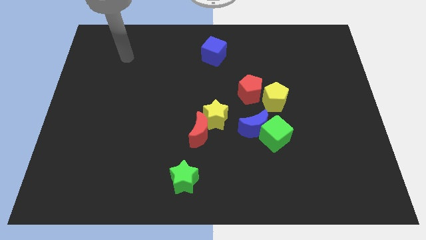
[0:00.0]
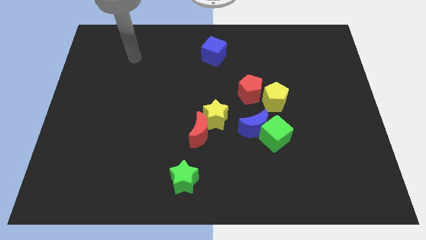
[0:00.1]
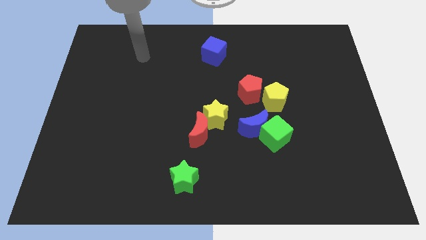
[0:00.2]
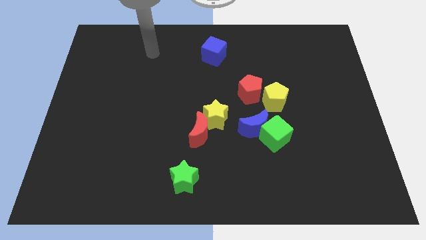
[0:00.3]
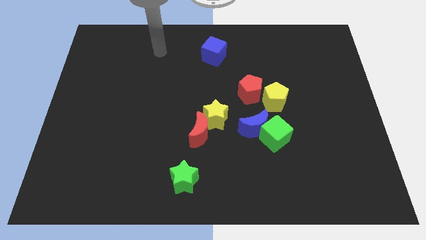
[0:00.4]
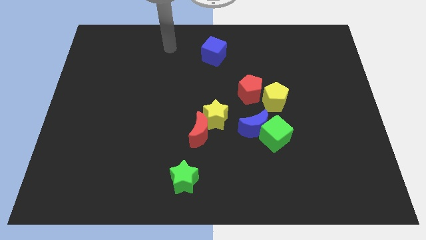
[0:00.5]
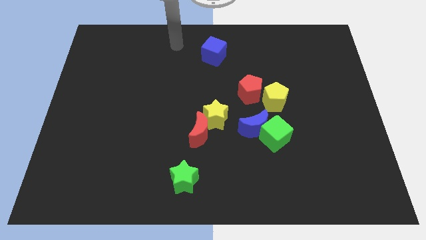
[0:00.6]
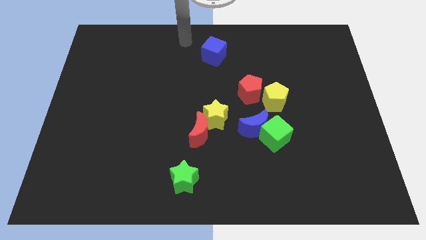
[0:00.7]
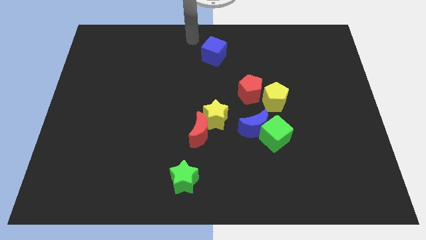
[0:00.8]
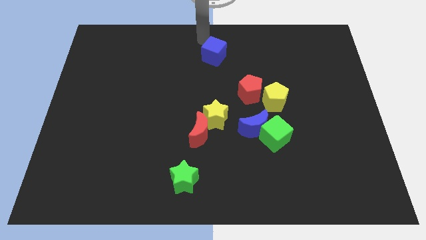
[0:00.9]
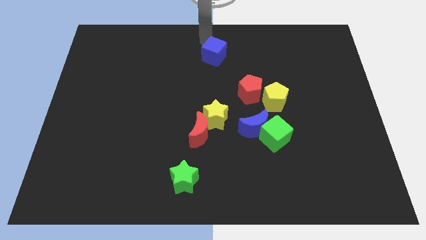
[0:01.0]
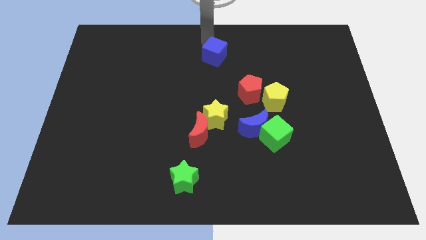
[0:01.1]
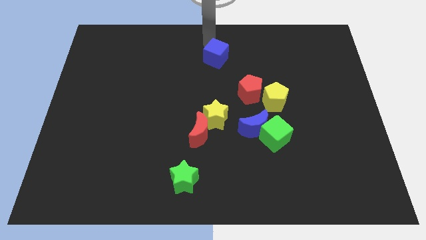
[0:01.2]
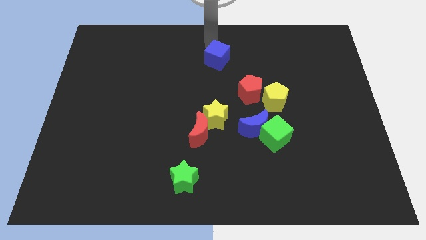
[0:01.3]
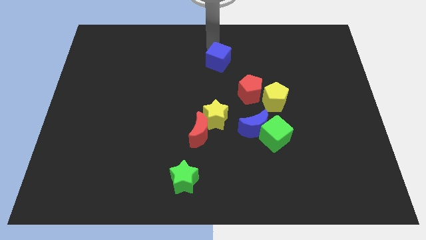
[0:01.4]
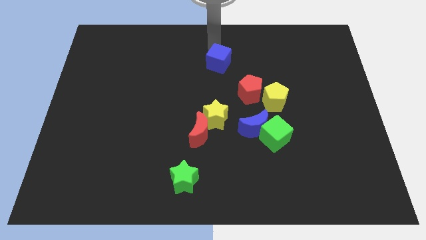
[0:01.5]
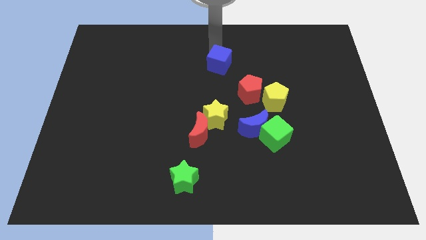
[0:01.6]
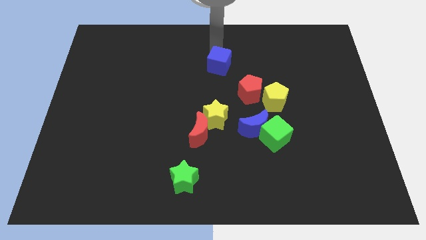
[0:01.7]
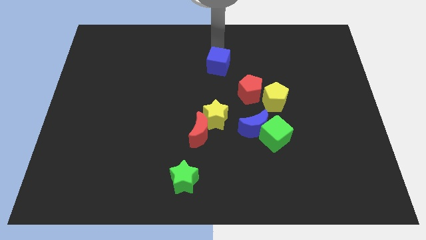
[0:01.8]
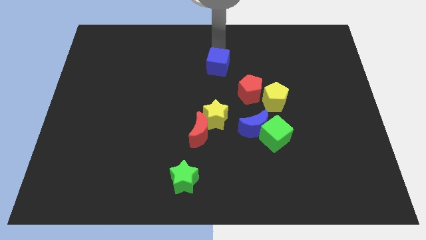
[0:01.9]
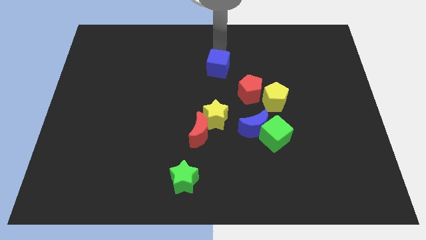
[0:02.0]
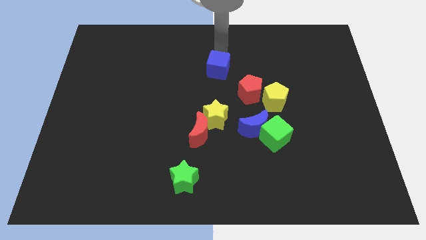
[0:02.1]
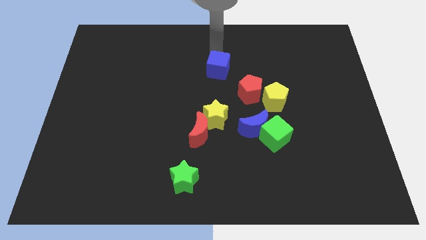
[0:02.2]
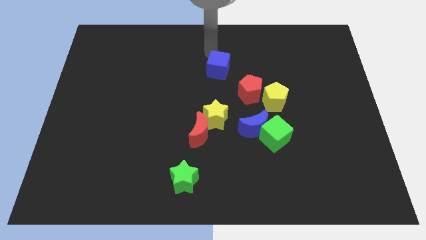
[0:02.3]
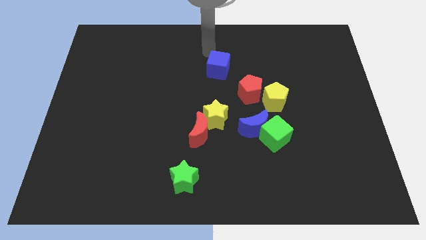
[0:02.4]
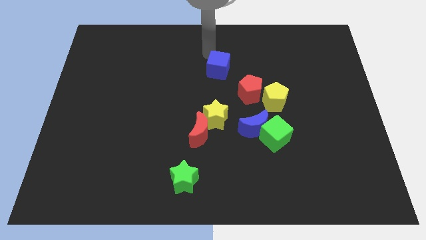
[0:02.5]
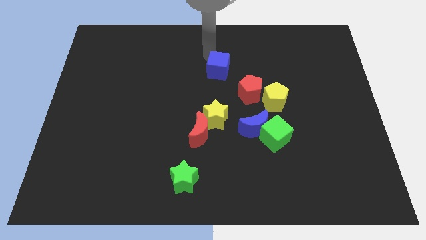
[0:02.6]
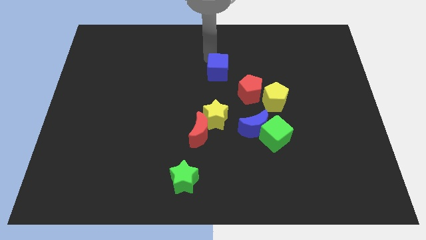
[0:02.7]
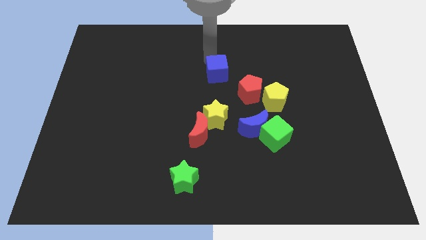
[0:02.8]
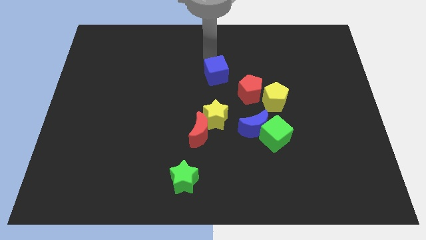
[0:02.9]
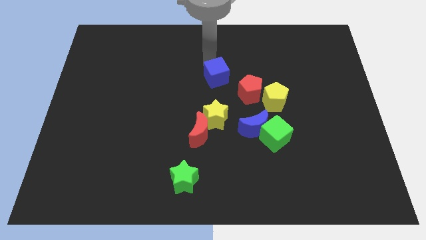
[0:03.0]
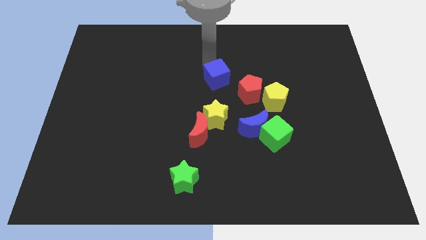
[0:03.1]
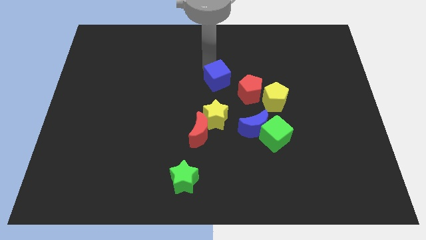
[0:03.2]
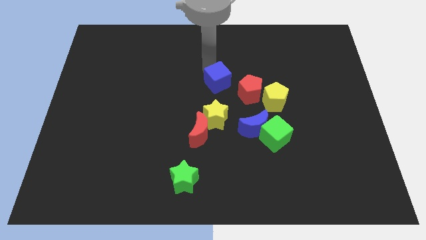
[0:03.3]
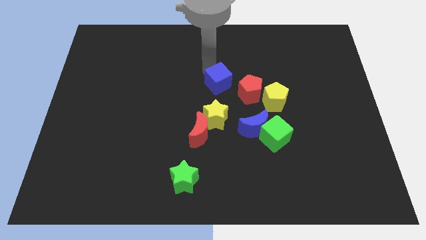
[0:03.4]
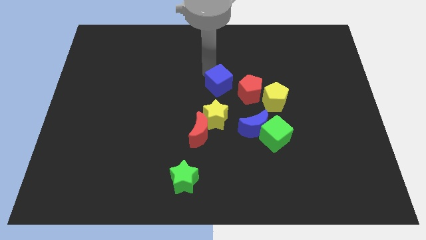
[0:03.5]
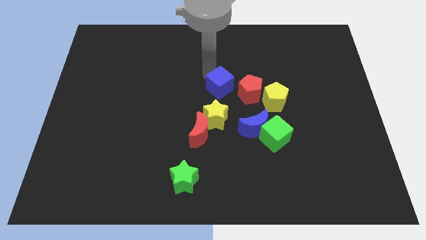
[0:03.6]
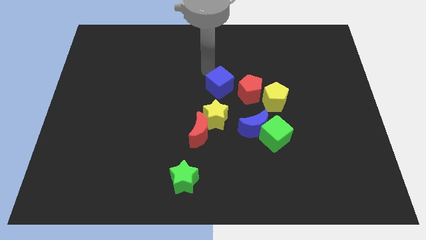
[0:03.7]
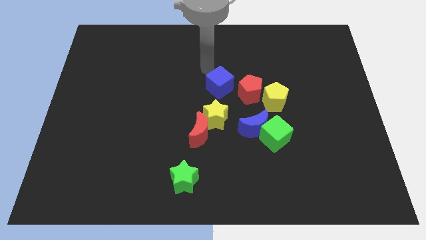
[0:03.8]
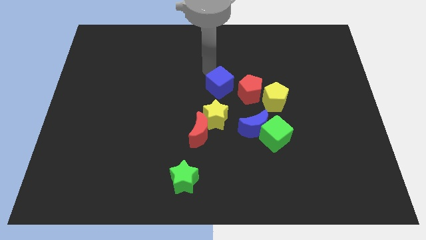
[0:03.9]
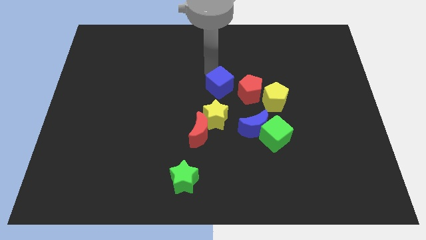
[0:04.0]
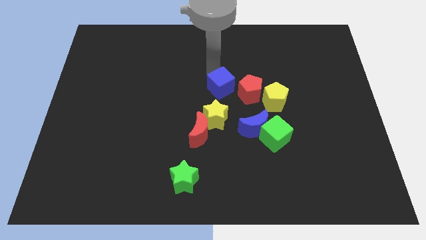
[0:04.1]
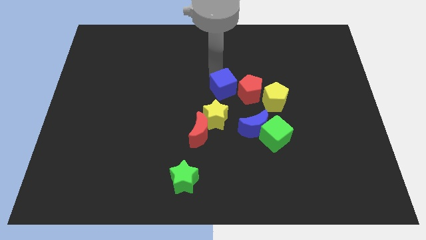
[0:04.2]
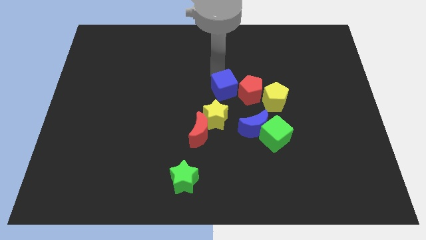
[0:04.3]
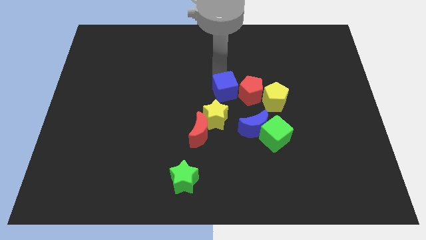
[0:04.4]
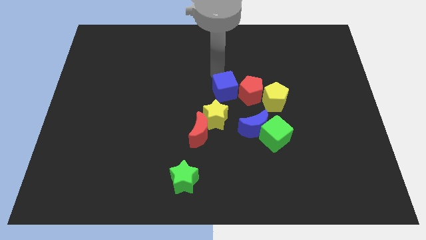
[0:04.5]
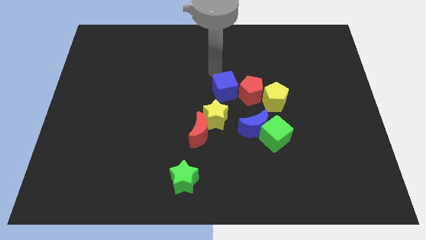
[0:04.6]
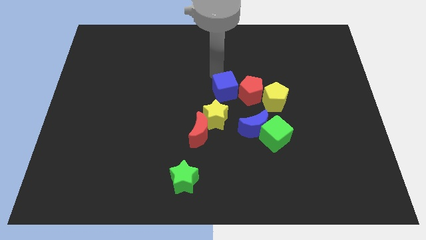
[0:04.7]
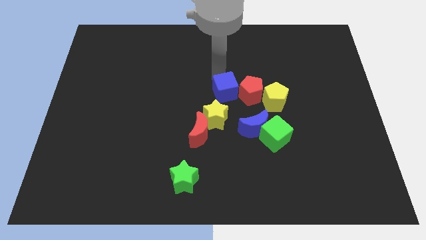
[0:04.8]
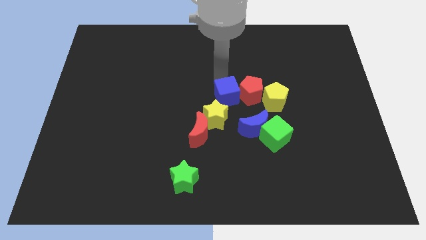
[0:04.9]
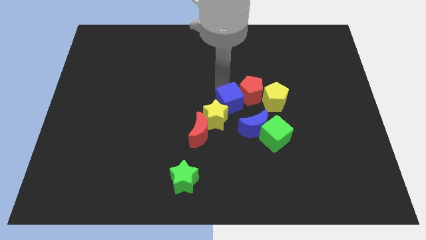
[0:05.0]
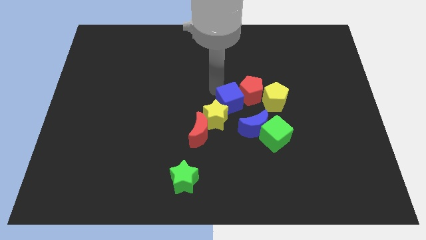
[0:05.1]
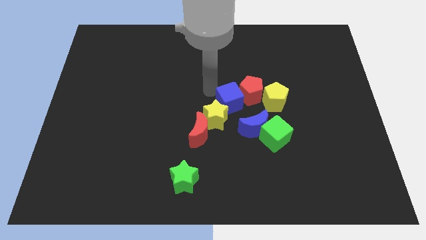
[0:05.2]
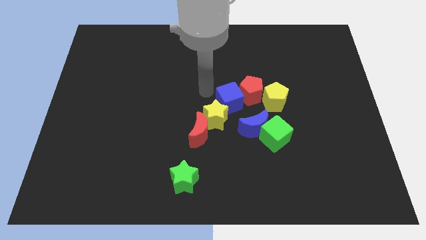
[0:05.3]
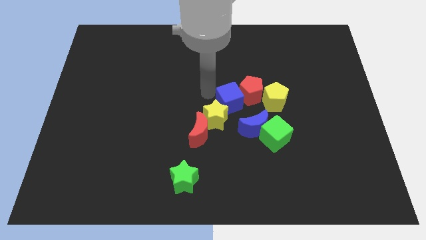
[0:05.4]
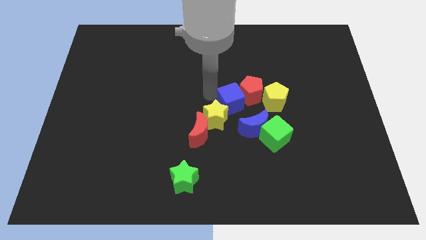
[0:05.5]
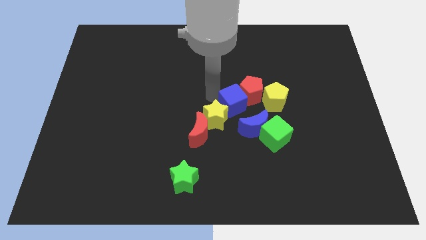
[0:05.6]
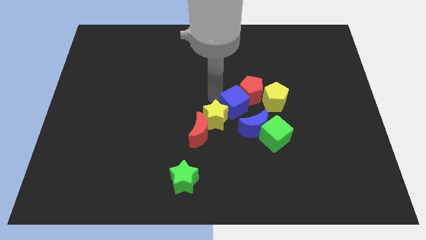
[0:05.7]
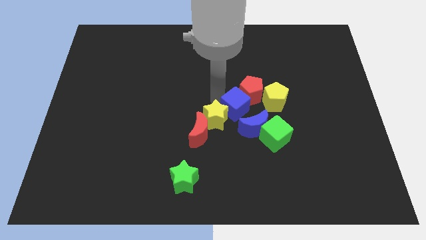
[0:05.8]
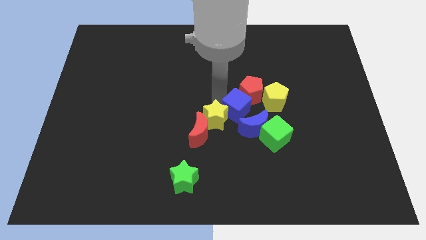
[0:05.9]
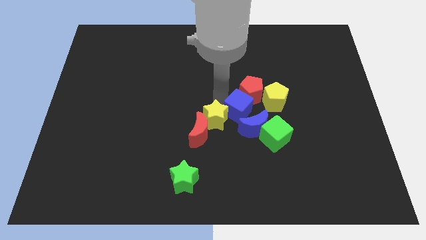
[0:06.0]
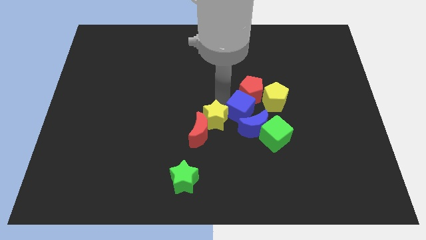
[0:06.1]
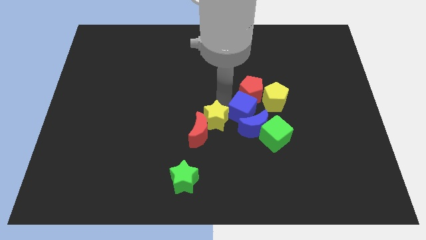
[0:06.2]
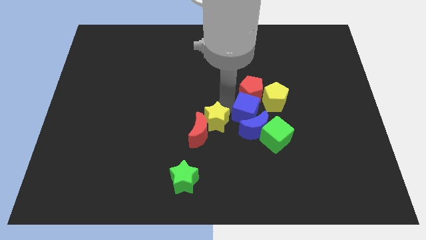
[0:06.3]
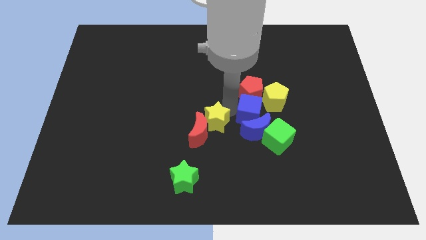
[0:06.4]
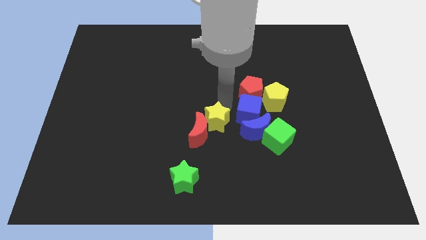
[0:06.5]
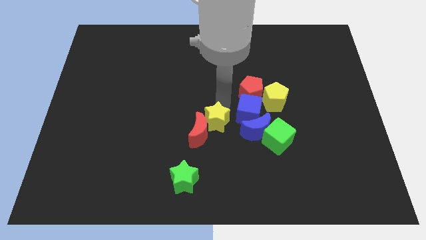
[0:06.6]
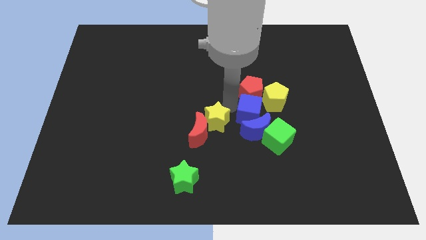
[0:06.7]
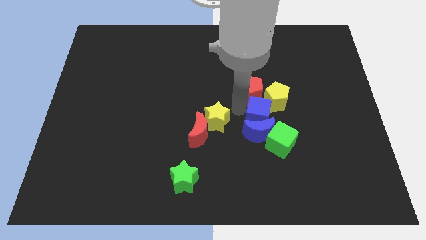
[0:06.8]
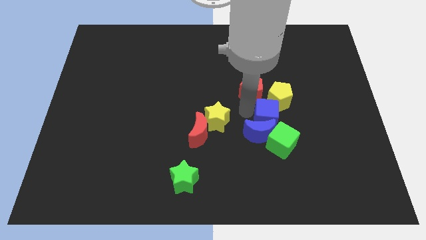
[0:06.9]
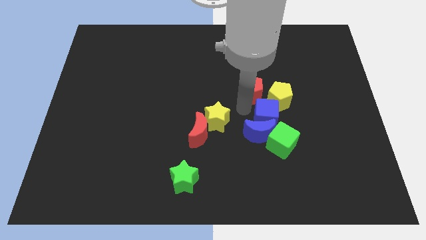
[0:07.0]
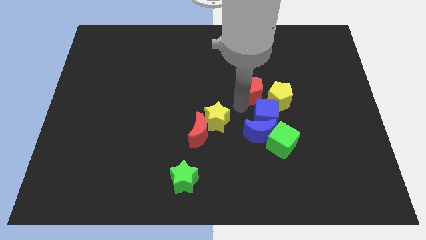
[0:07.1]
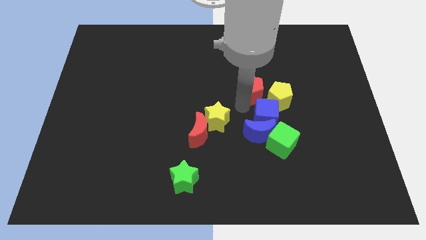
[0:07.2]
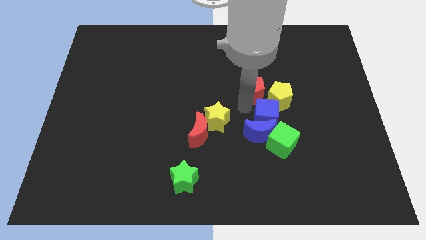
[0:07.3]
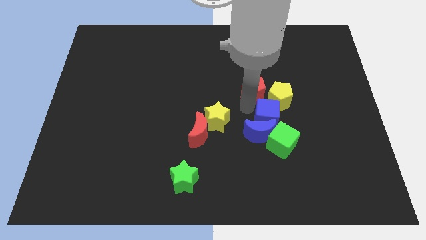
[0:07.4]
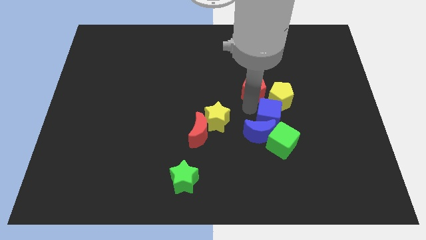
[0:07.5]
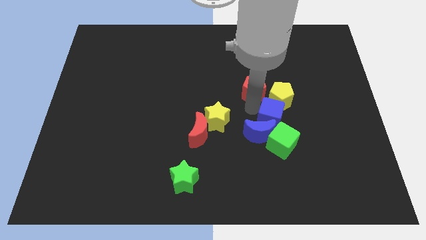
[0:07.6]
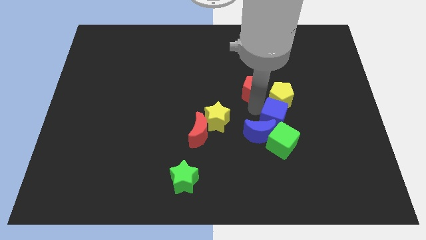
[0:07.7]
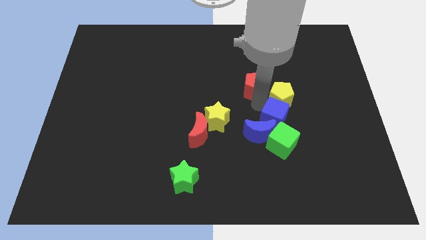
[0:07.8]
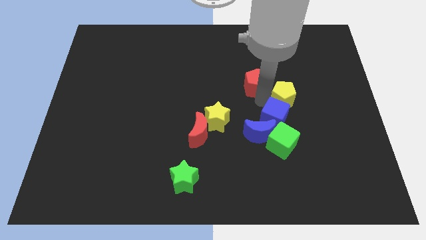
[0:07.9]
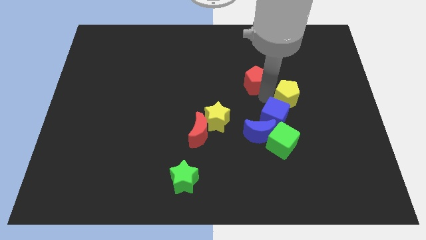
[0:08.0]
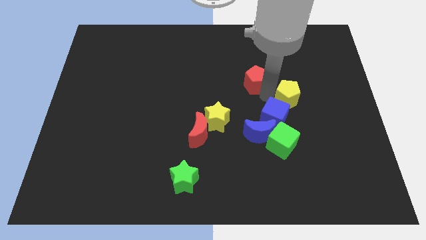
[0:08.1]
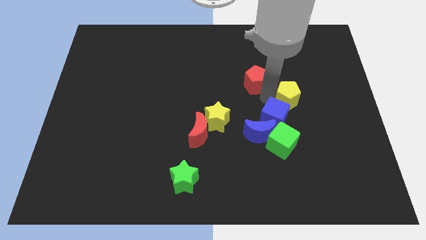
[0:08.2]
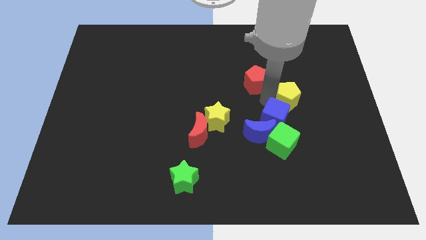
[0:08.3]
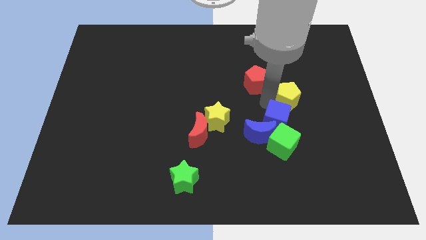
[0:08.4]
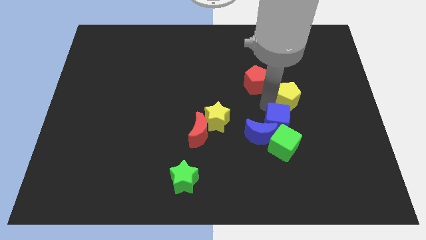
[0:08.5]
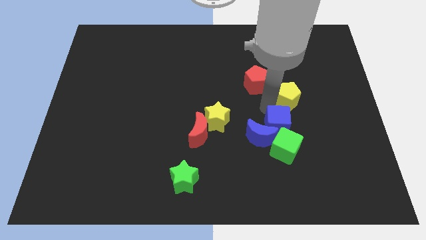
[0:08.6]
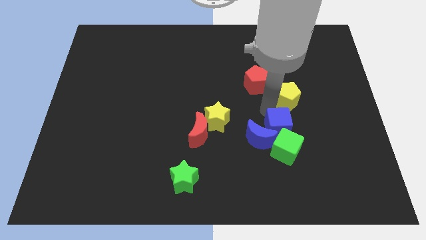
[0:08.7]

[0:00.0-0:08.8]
push the blue cube towards the green cube
